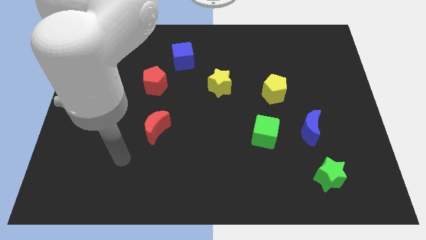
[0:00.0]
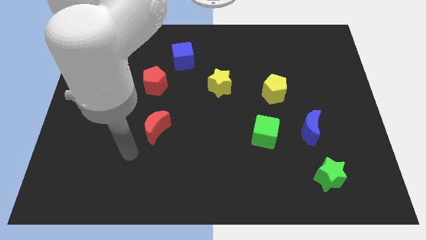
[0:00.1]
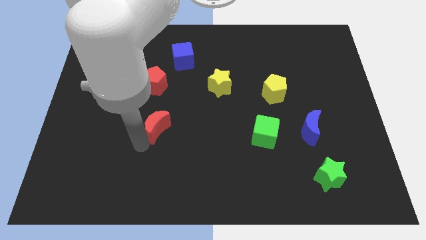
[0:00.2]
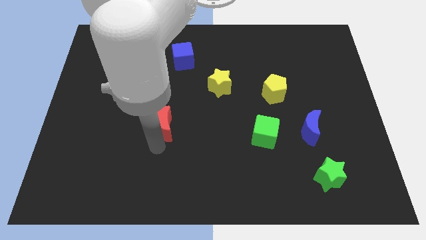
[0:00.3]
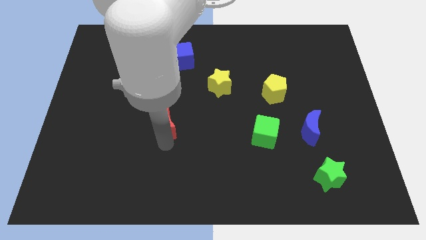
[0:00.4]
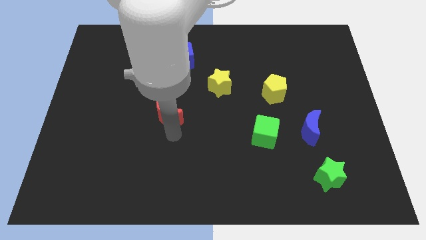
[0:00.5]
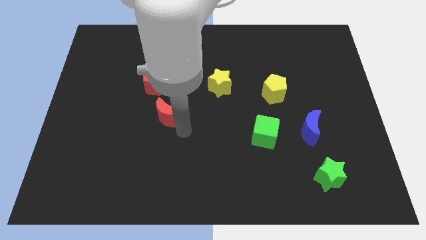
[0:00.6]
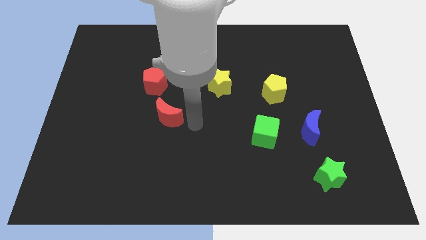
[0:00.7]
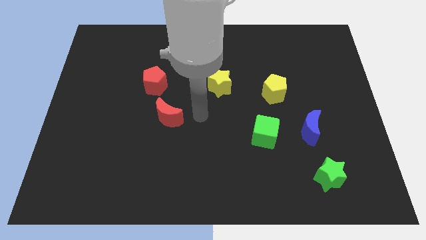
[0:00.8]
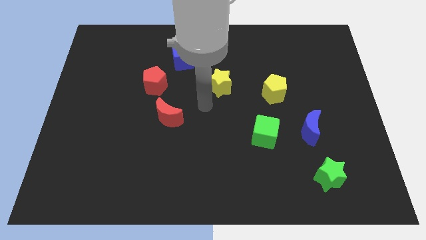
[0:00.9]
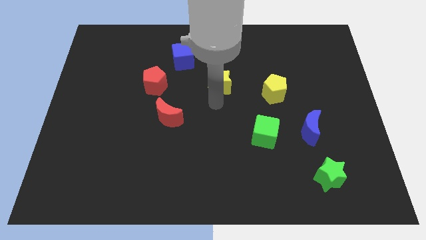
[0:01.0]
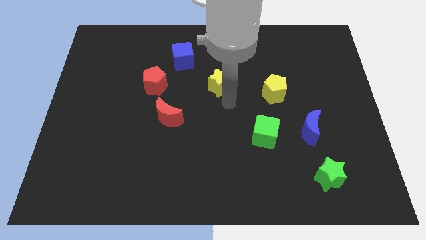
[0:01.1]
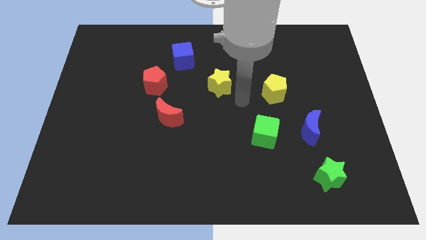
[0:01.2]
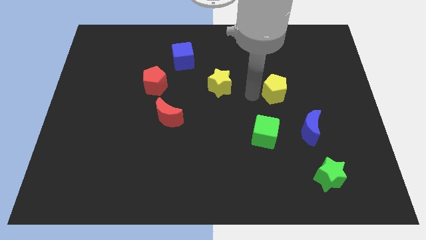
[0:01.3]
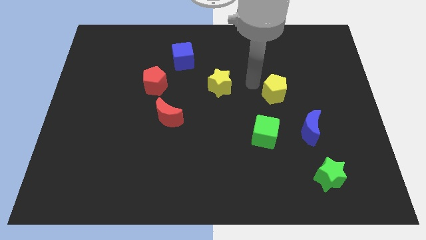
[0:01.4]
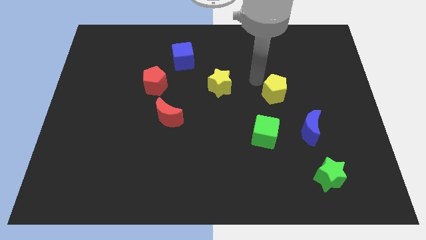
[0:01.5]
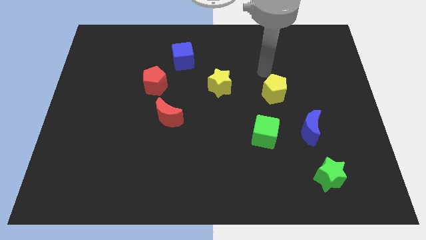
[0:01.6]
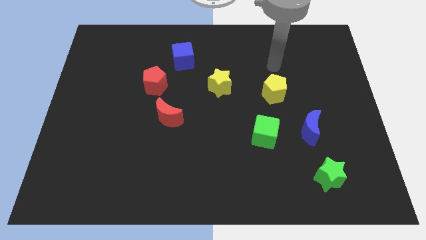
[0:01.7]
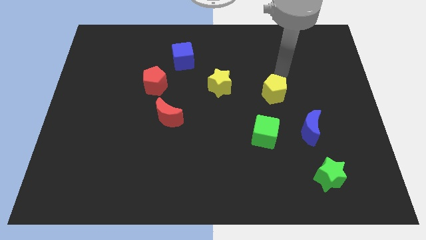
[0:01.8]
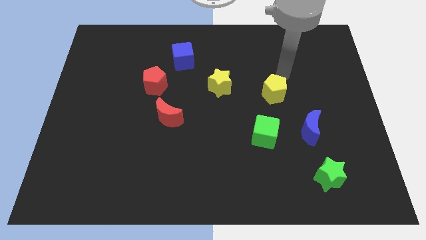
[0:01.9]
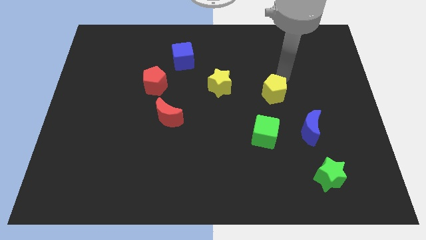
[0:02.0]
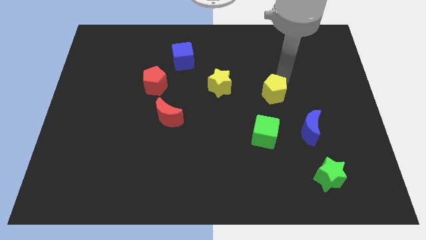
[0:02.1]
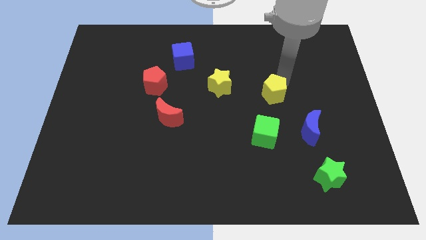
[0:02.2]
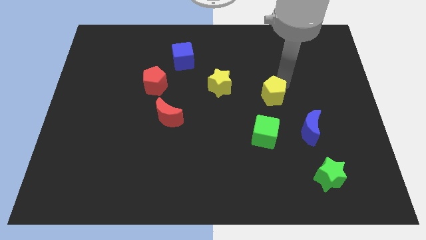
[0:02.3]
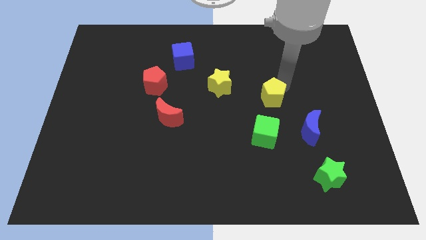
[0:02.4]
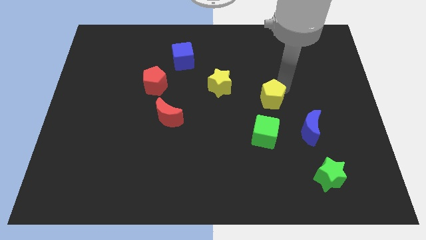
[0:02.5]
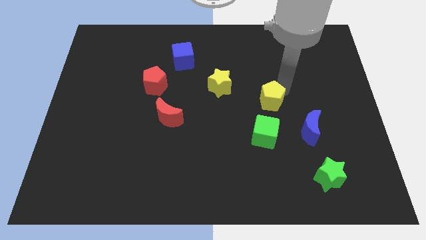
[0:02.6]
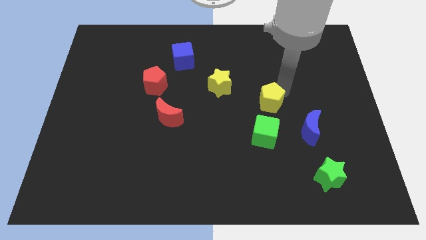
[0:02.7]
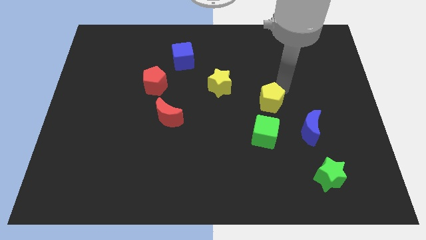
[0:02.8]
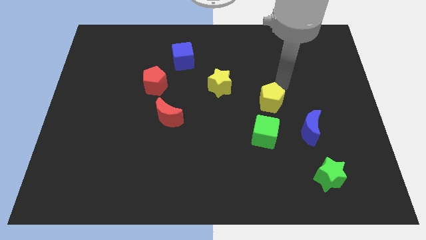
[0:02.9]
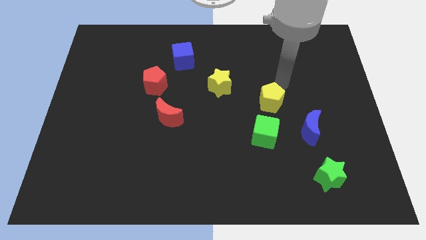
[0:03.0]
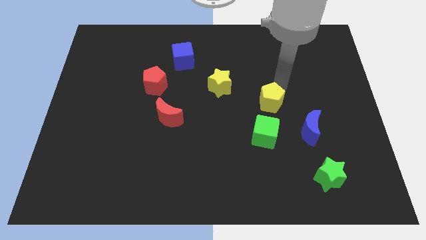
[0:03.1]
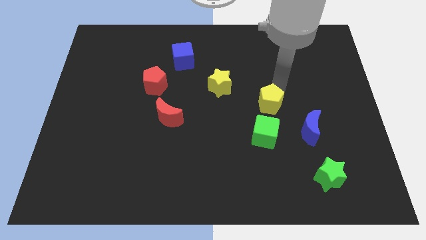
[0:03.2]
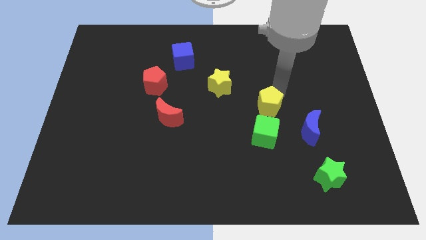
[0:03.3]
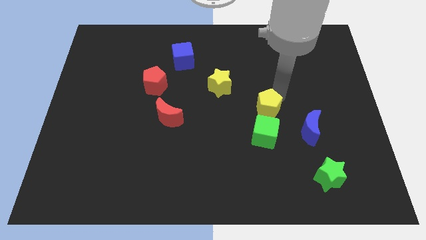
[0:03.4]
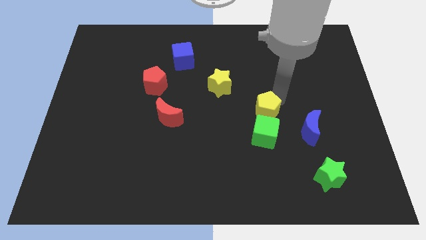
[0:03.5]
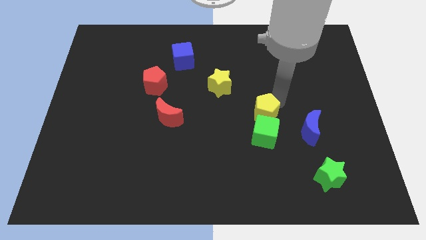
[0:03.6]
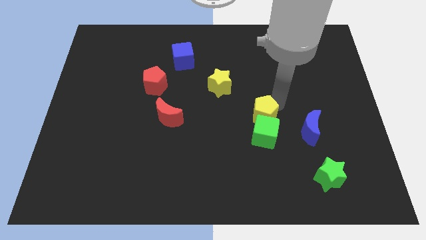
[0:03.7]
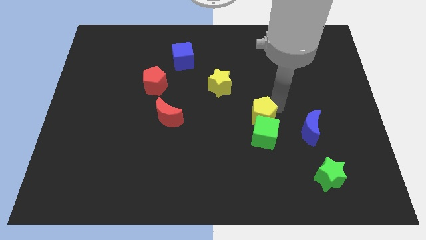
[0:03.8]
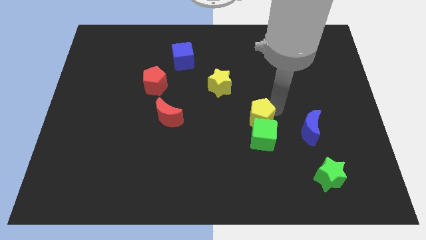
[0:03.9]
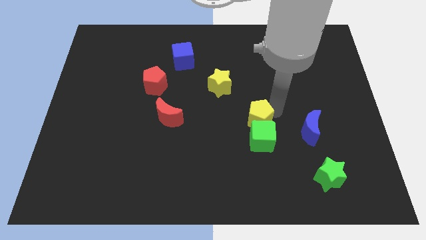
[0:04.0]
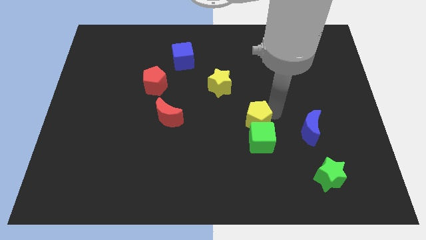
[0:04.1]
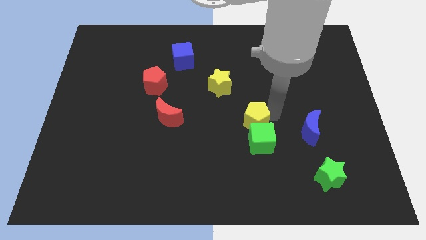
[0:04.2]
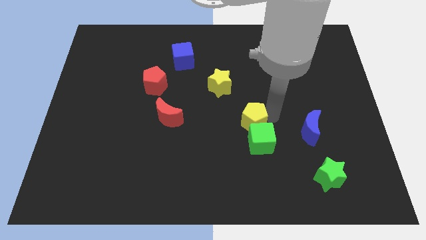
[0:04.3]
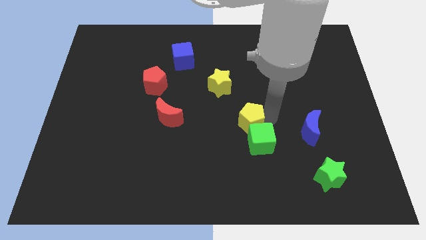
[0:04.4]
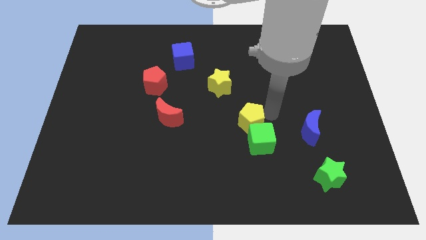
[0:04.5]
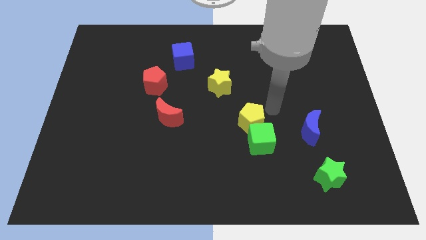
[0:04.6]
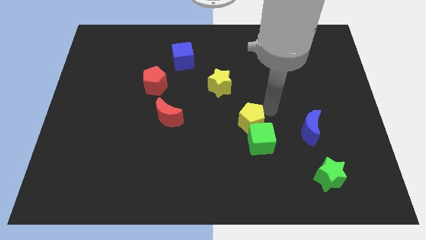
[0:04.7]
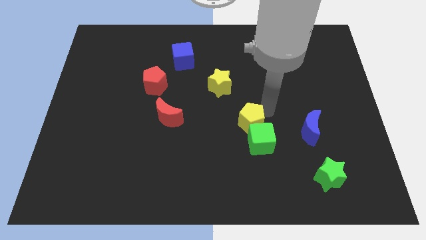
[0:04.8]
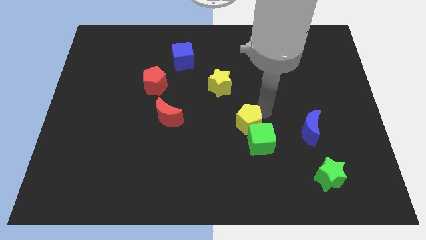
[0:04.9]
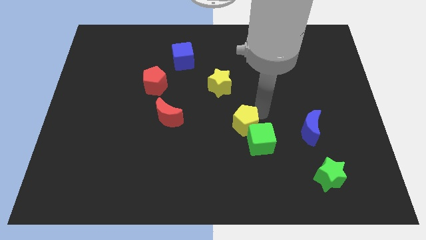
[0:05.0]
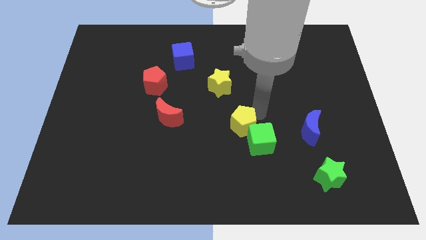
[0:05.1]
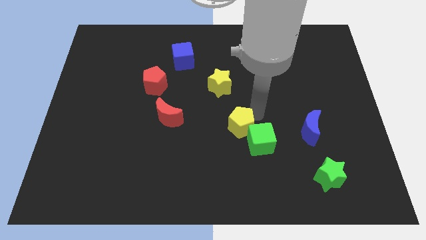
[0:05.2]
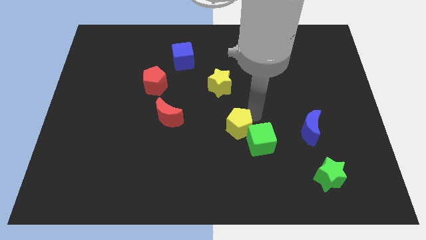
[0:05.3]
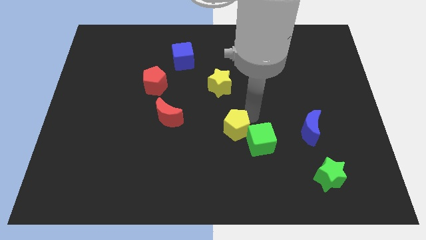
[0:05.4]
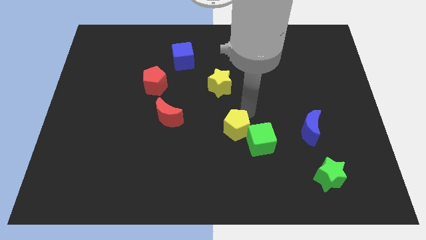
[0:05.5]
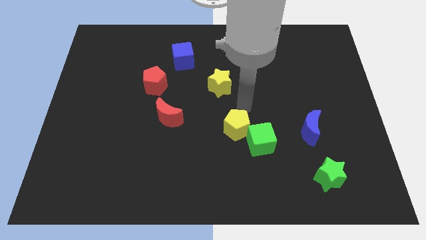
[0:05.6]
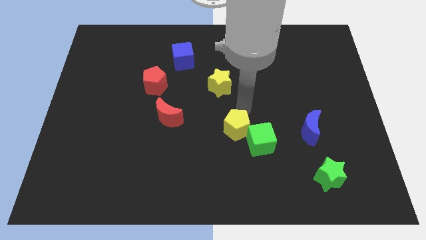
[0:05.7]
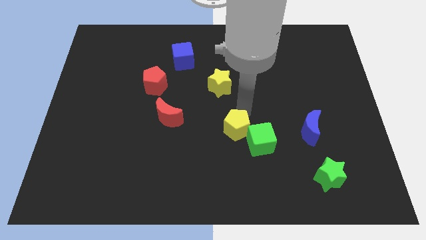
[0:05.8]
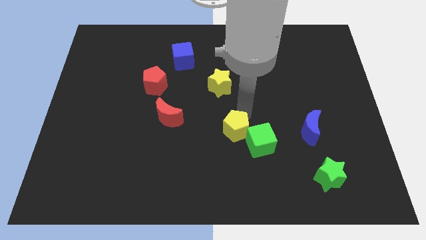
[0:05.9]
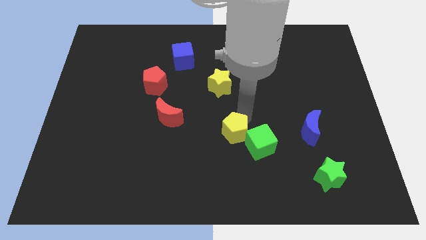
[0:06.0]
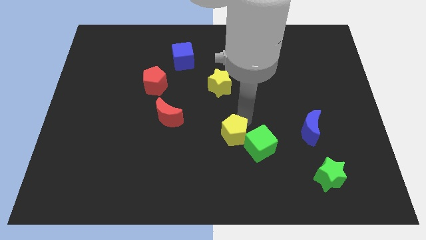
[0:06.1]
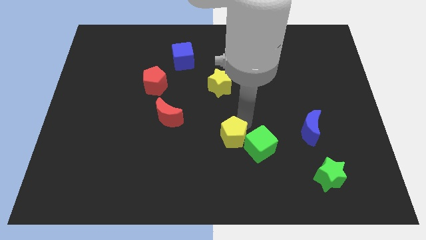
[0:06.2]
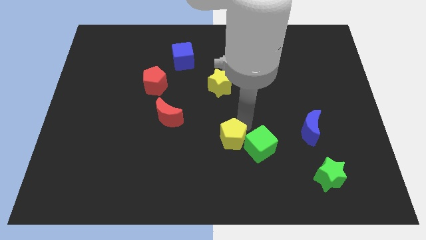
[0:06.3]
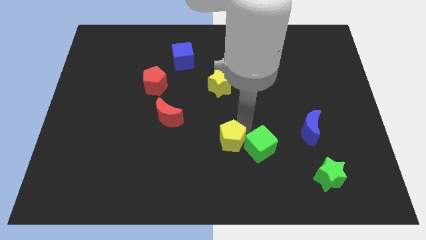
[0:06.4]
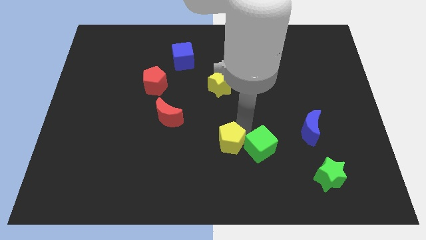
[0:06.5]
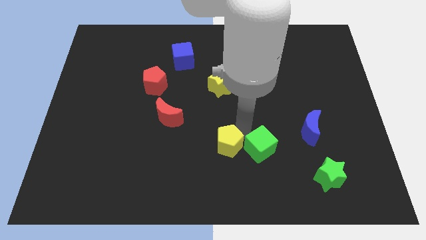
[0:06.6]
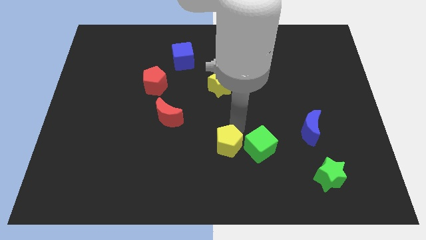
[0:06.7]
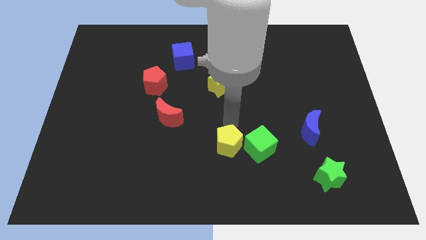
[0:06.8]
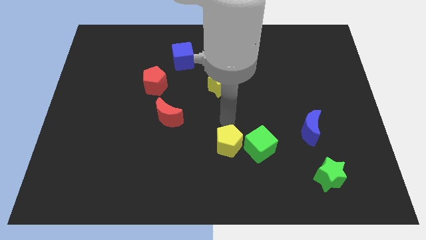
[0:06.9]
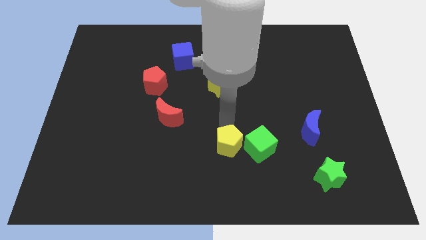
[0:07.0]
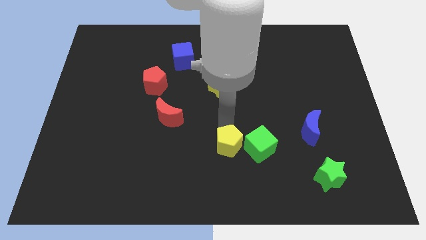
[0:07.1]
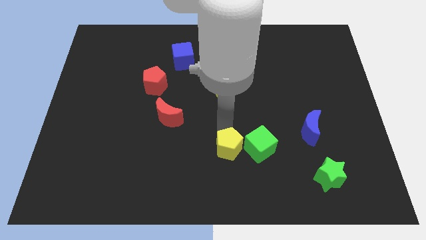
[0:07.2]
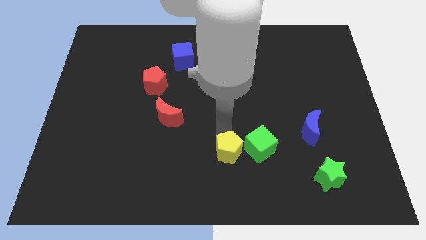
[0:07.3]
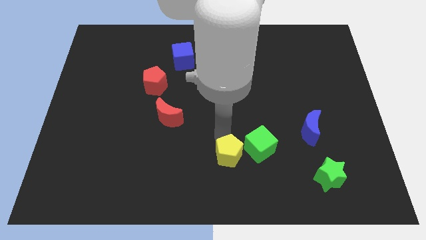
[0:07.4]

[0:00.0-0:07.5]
slide the yellow pentagon to the bottom
